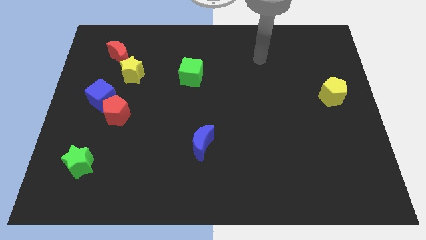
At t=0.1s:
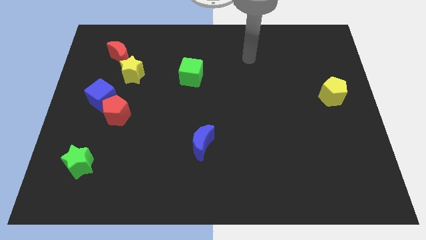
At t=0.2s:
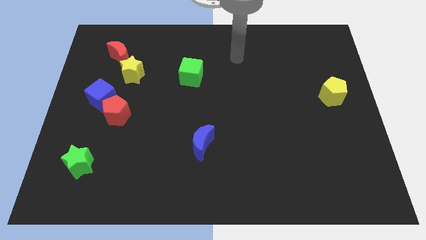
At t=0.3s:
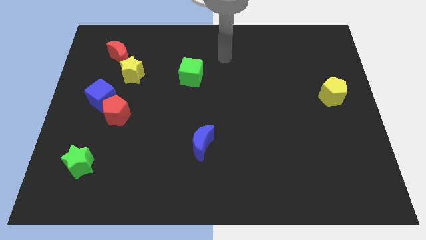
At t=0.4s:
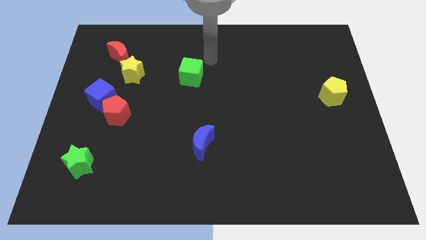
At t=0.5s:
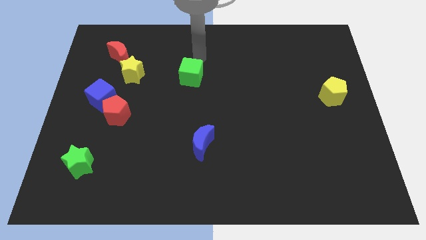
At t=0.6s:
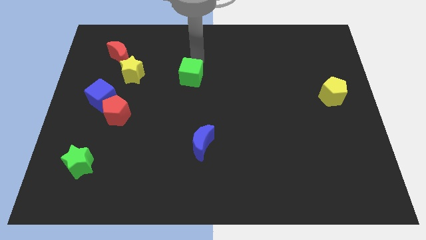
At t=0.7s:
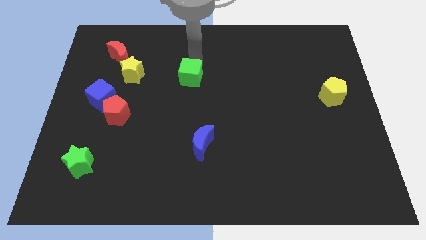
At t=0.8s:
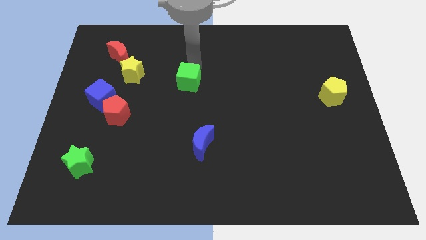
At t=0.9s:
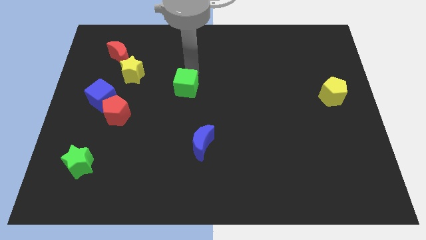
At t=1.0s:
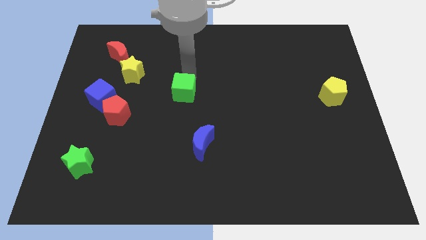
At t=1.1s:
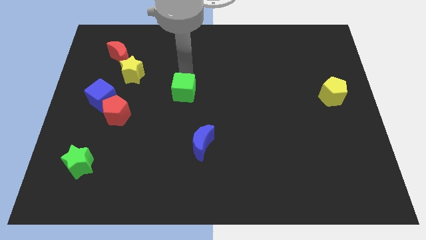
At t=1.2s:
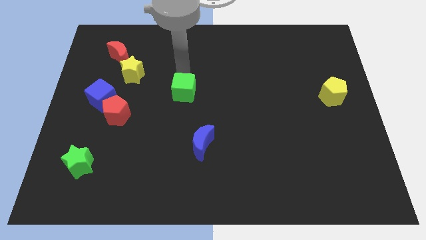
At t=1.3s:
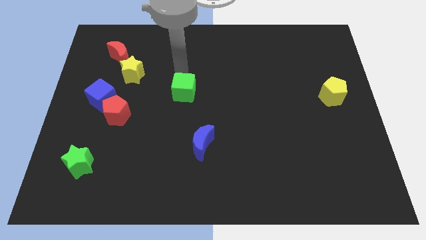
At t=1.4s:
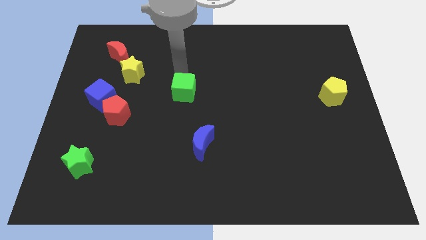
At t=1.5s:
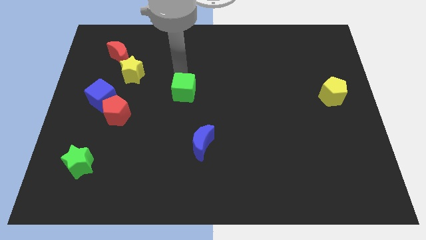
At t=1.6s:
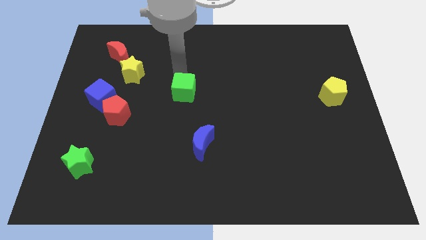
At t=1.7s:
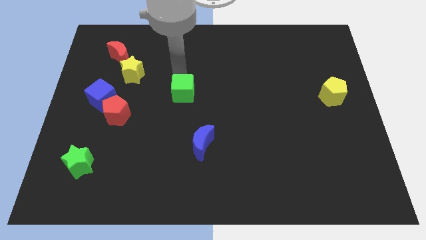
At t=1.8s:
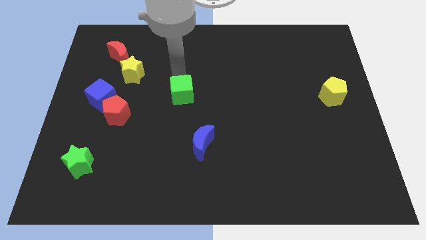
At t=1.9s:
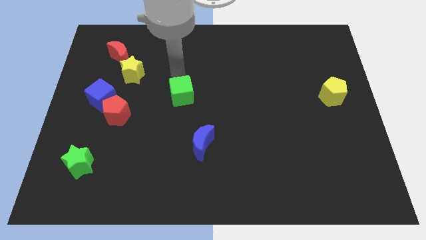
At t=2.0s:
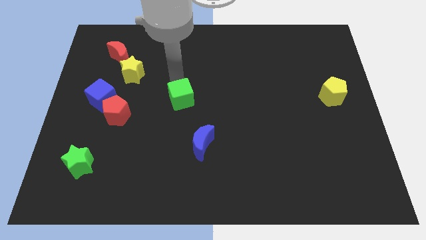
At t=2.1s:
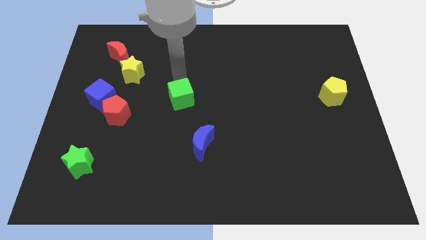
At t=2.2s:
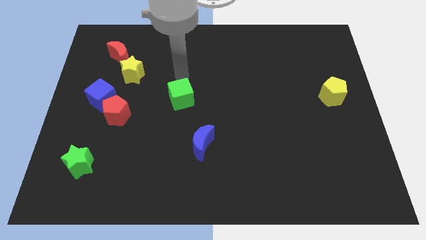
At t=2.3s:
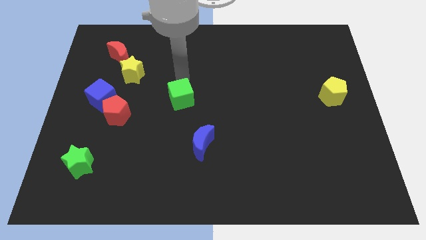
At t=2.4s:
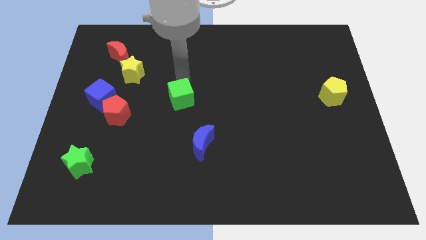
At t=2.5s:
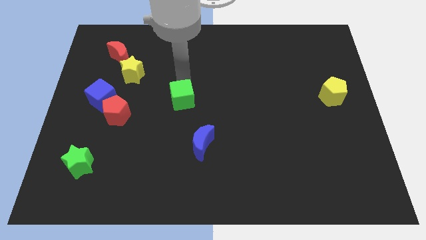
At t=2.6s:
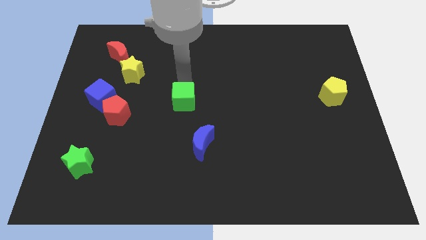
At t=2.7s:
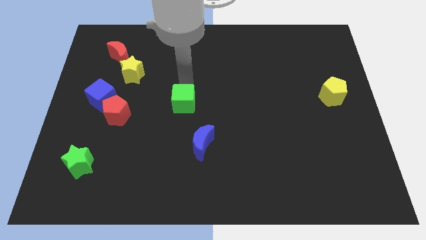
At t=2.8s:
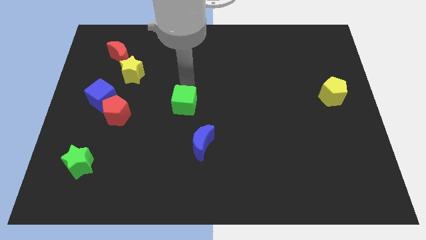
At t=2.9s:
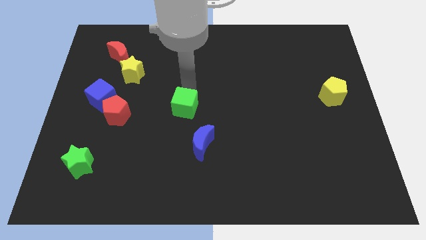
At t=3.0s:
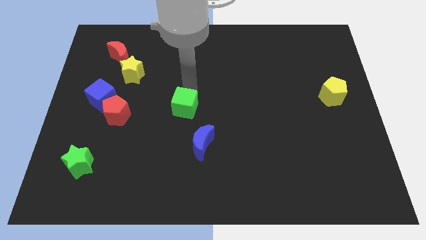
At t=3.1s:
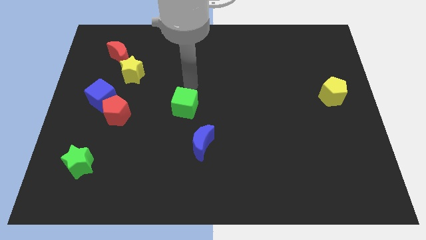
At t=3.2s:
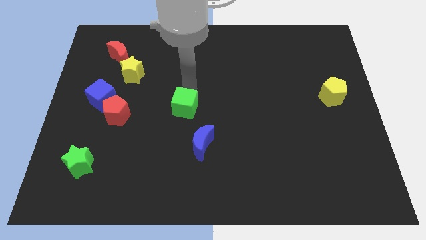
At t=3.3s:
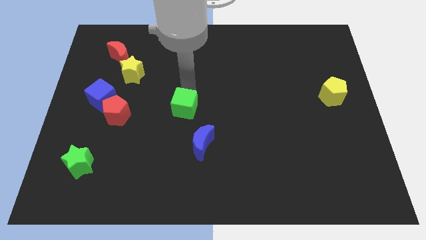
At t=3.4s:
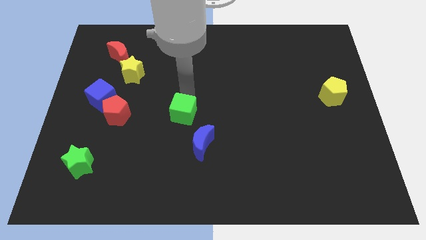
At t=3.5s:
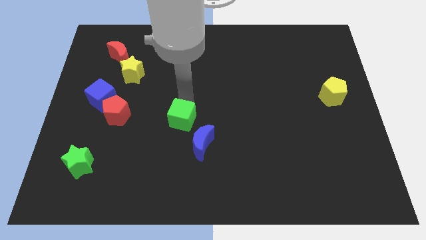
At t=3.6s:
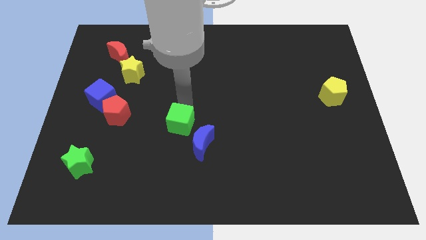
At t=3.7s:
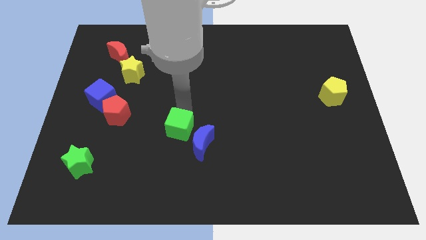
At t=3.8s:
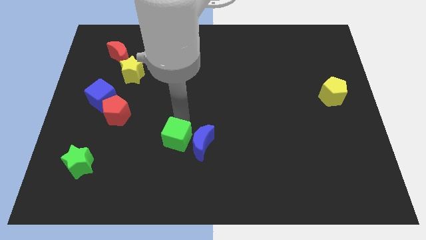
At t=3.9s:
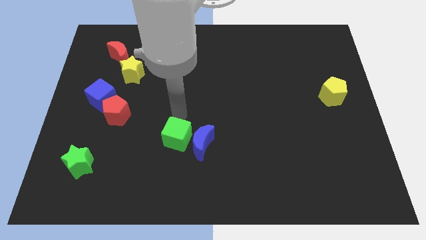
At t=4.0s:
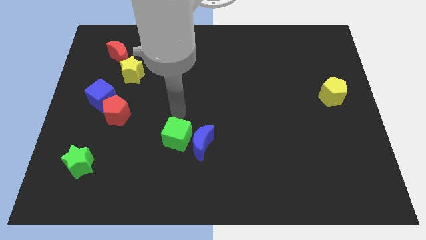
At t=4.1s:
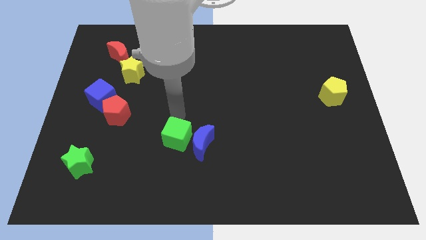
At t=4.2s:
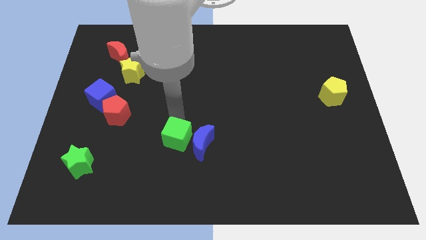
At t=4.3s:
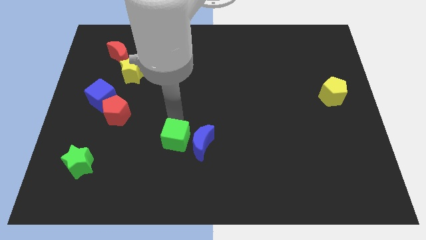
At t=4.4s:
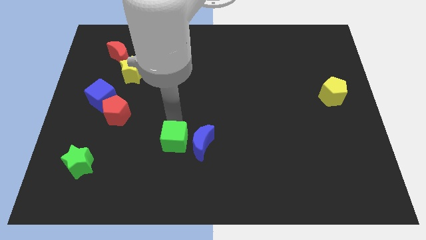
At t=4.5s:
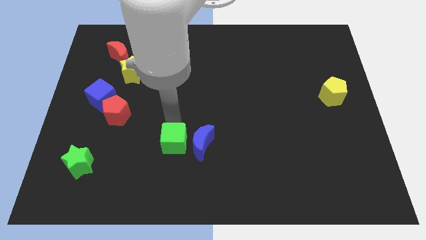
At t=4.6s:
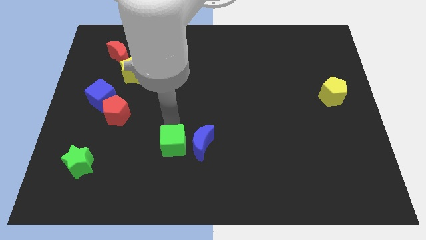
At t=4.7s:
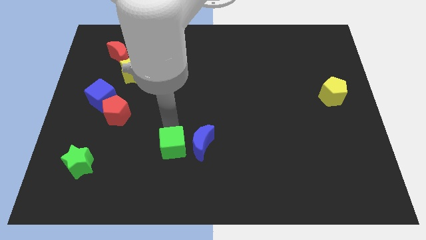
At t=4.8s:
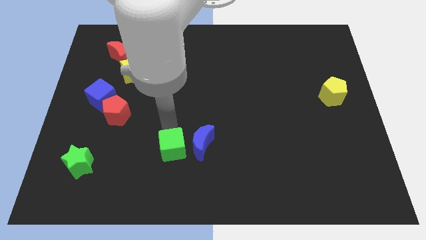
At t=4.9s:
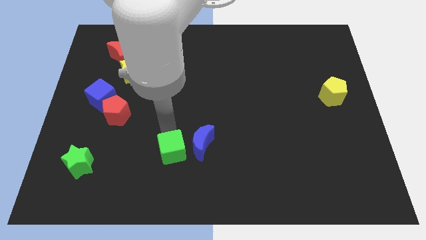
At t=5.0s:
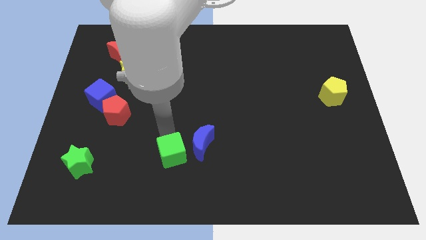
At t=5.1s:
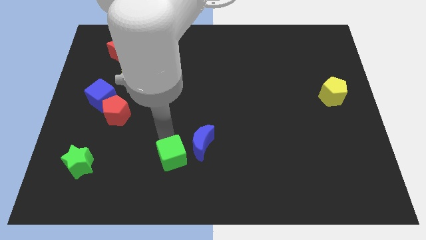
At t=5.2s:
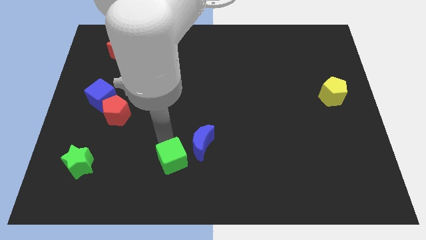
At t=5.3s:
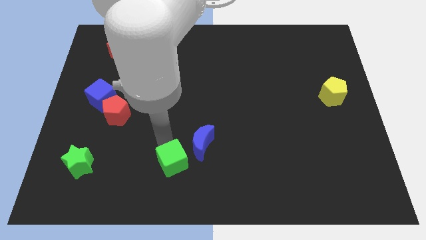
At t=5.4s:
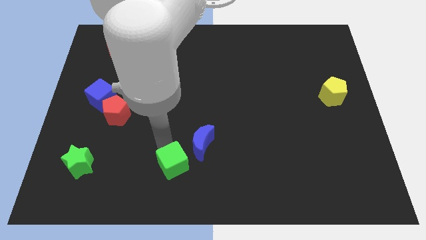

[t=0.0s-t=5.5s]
move the green cube to the bottom

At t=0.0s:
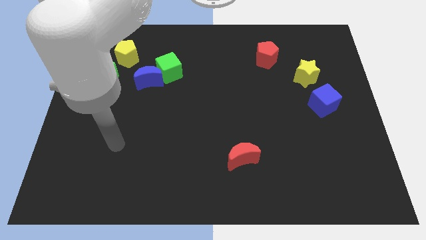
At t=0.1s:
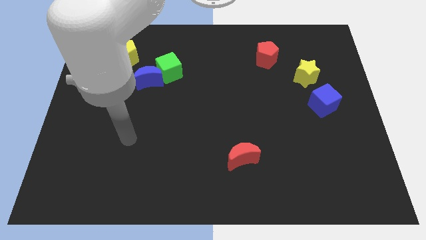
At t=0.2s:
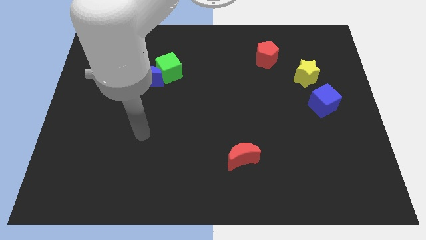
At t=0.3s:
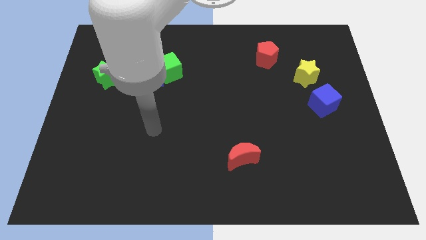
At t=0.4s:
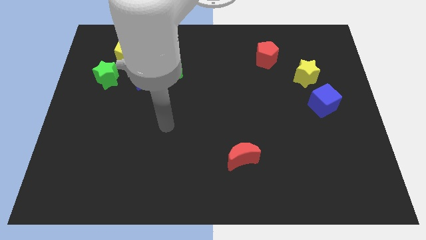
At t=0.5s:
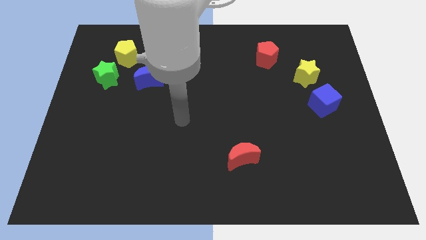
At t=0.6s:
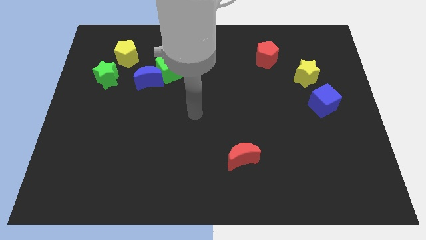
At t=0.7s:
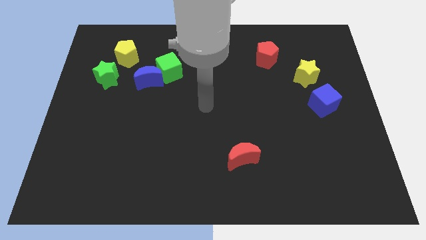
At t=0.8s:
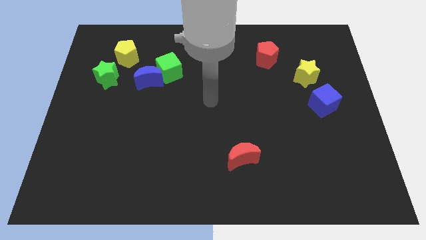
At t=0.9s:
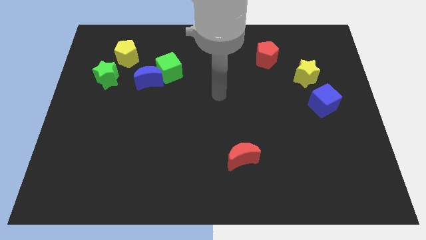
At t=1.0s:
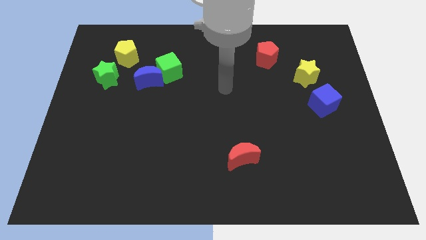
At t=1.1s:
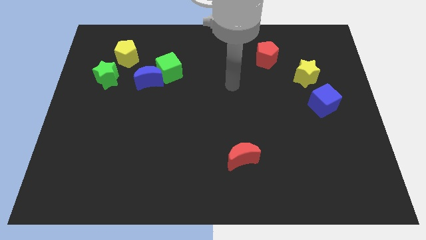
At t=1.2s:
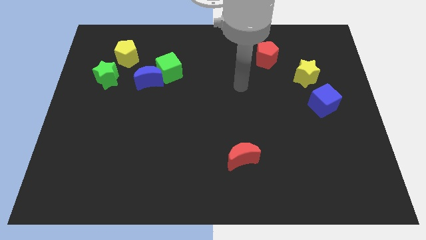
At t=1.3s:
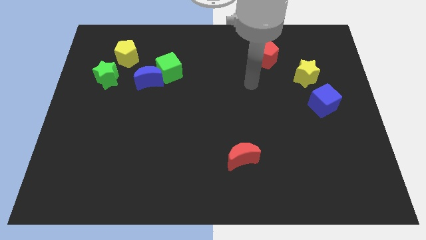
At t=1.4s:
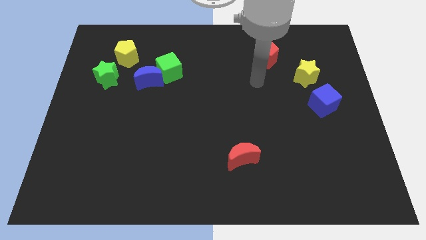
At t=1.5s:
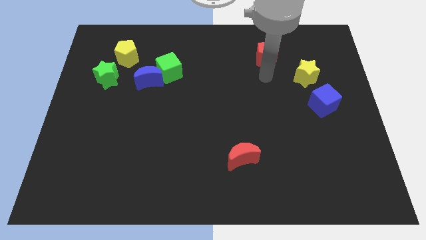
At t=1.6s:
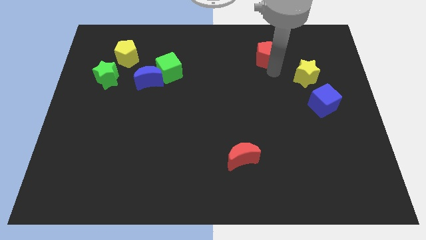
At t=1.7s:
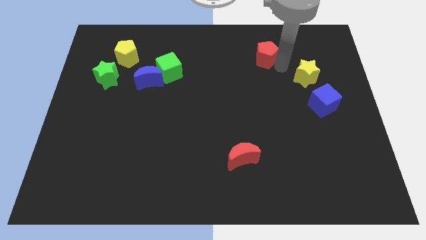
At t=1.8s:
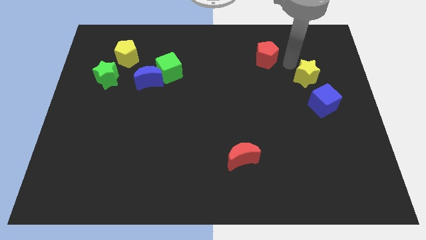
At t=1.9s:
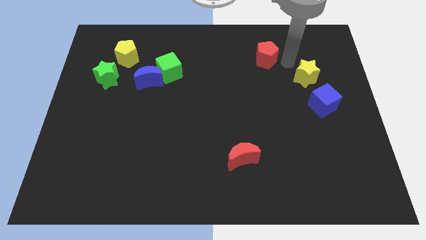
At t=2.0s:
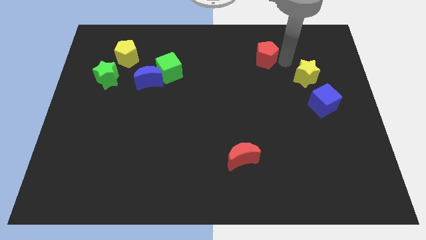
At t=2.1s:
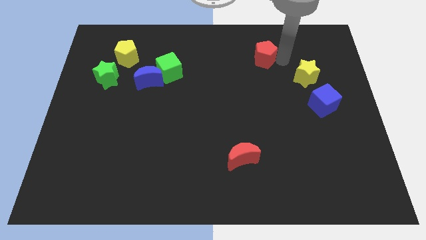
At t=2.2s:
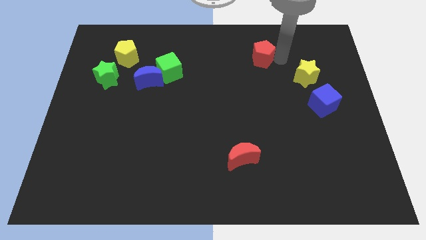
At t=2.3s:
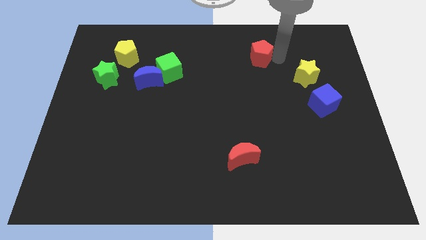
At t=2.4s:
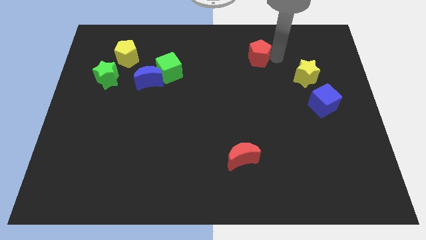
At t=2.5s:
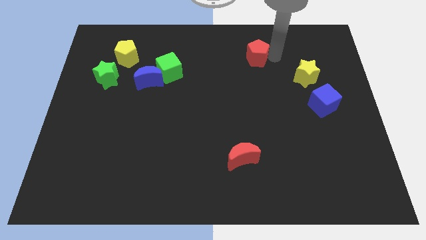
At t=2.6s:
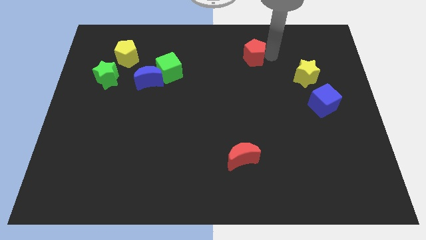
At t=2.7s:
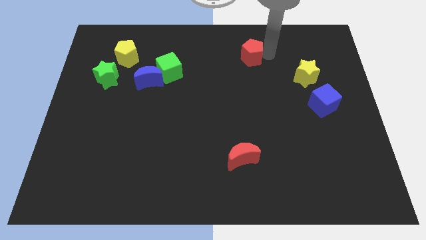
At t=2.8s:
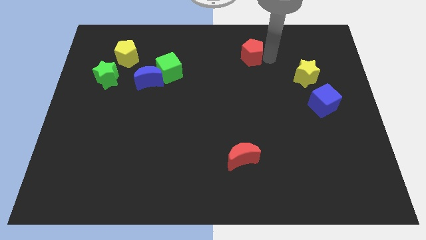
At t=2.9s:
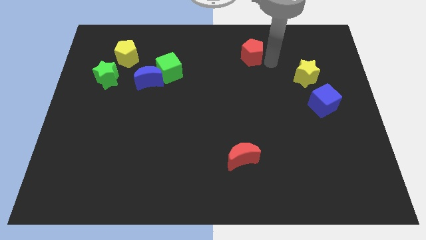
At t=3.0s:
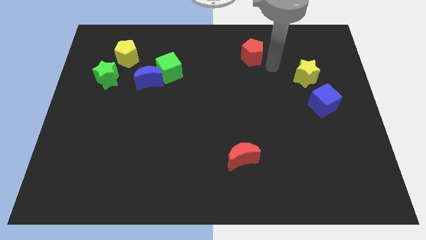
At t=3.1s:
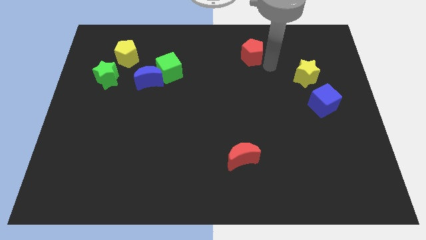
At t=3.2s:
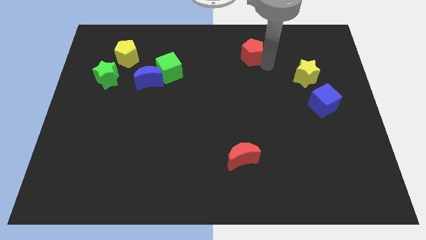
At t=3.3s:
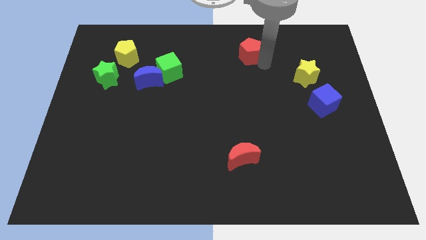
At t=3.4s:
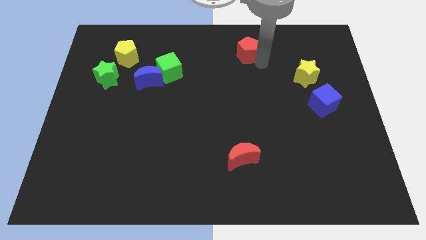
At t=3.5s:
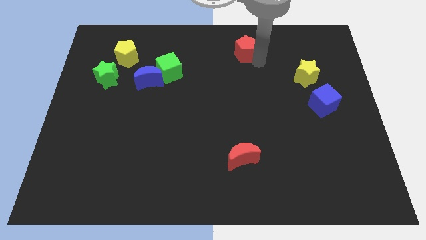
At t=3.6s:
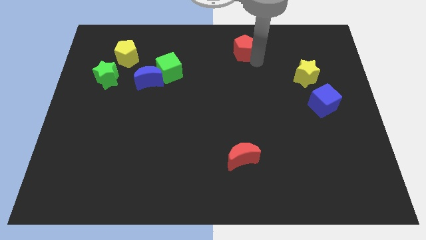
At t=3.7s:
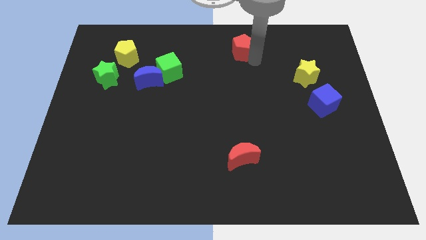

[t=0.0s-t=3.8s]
move the red pentagon to the top
